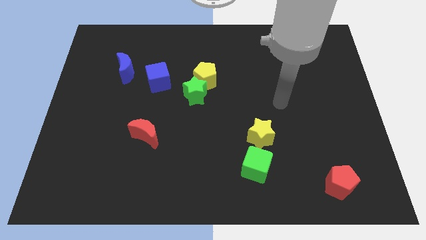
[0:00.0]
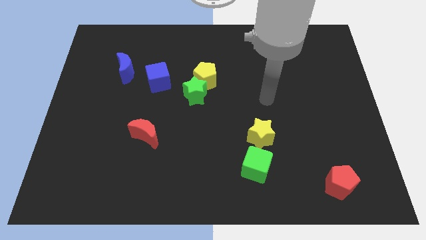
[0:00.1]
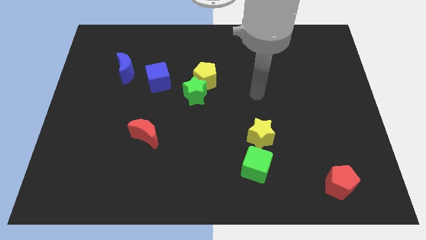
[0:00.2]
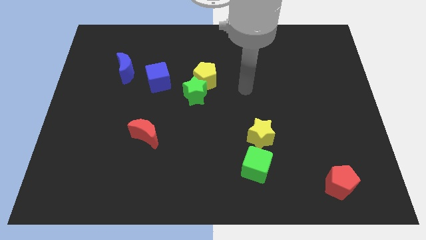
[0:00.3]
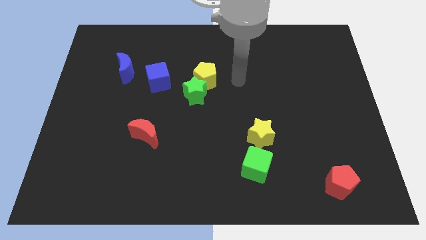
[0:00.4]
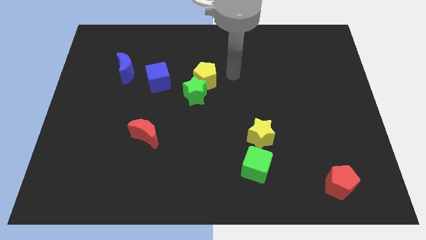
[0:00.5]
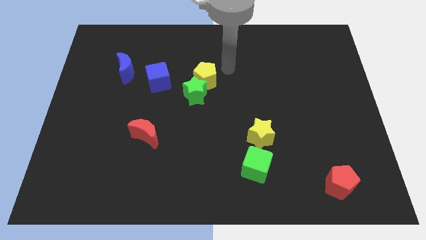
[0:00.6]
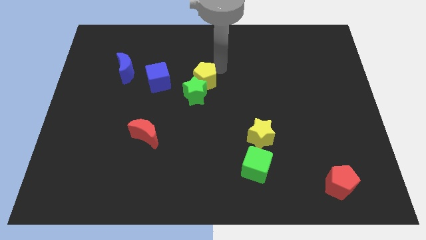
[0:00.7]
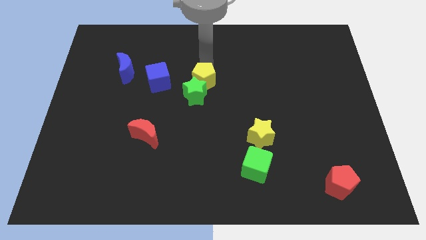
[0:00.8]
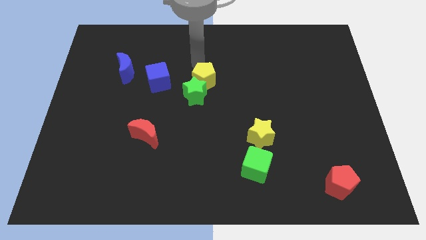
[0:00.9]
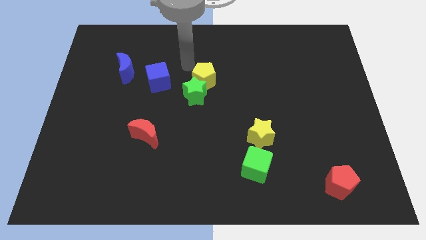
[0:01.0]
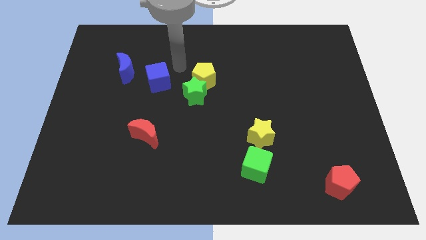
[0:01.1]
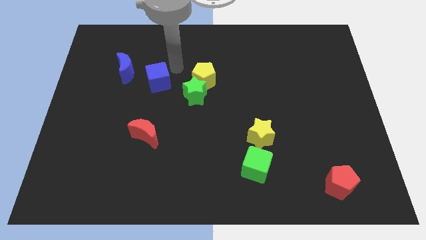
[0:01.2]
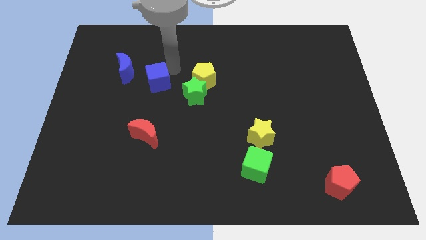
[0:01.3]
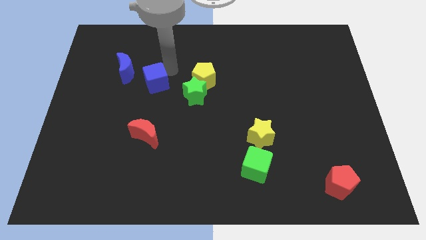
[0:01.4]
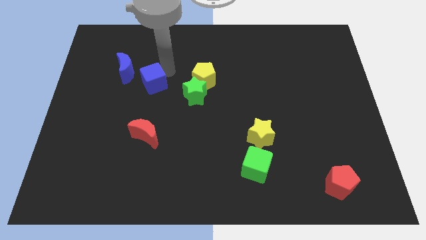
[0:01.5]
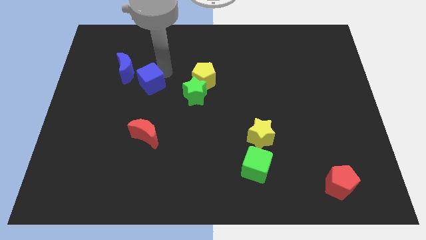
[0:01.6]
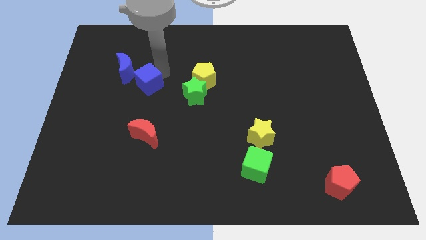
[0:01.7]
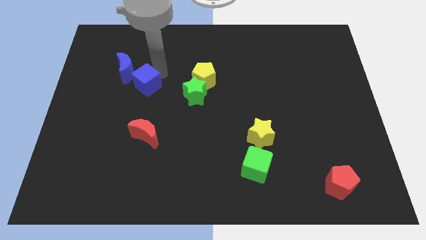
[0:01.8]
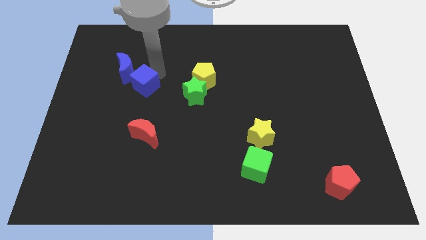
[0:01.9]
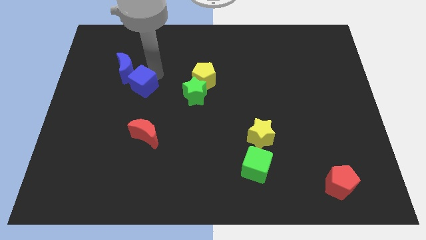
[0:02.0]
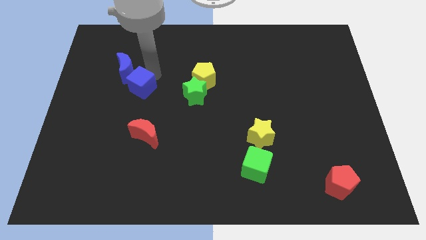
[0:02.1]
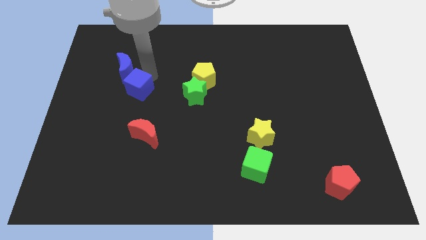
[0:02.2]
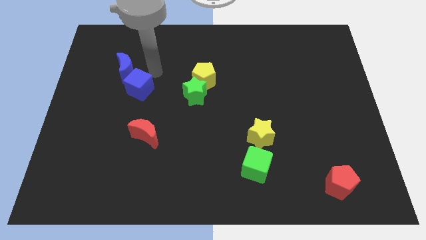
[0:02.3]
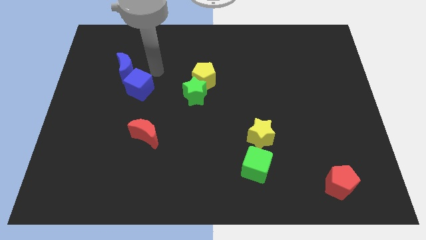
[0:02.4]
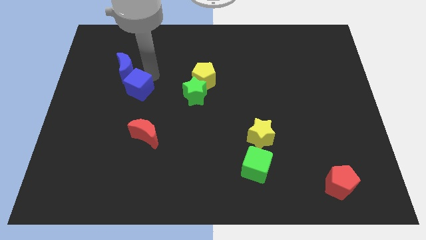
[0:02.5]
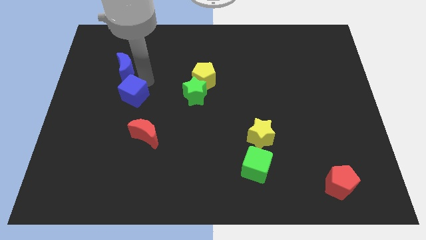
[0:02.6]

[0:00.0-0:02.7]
push the blue cube a bit downwards and then left

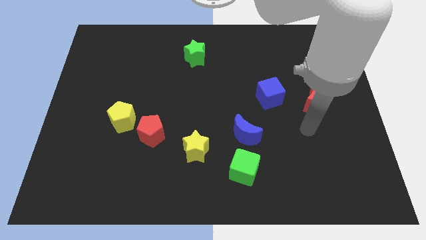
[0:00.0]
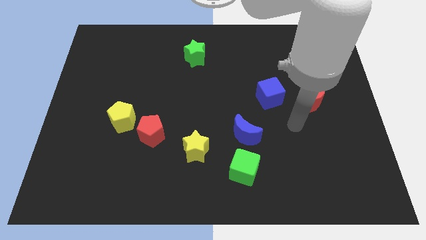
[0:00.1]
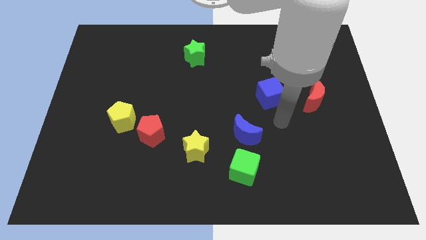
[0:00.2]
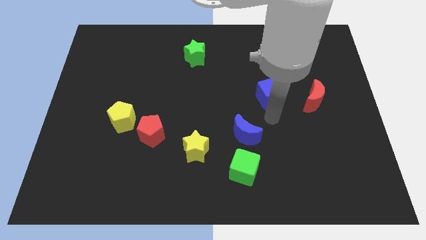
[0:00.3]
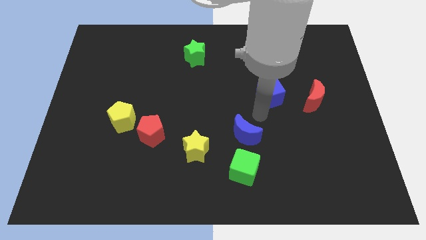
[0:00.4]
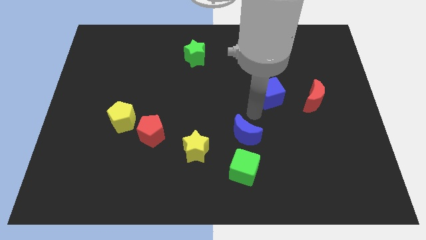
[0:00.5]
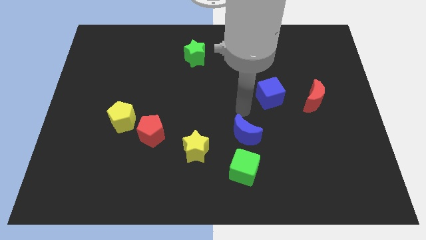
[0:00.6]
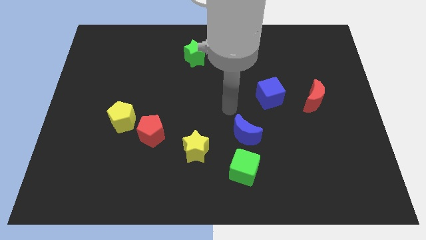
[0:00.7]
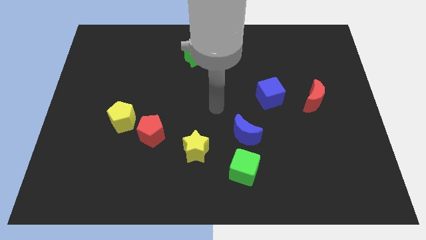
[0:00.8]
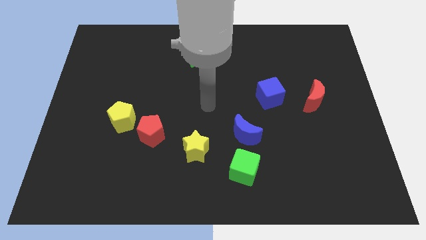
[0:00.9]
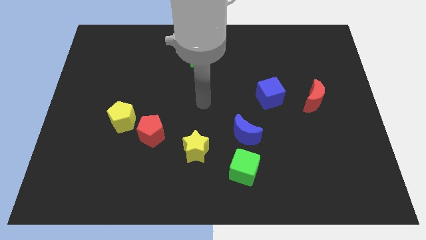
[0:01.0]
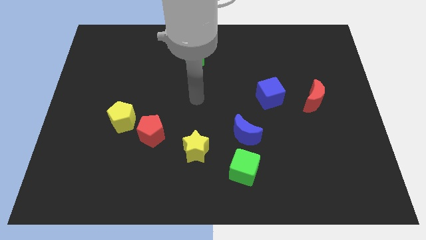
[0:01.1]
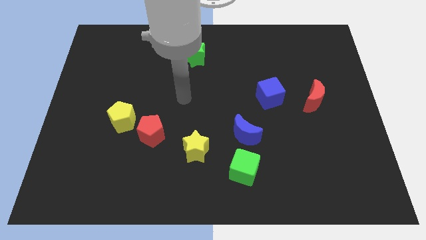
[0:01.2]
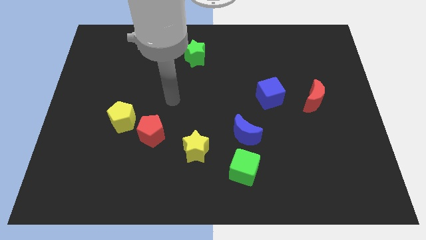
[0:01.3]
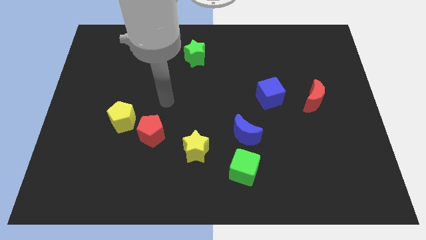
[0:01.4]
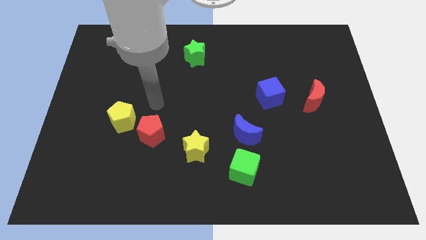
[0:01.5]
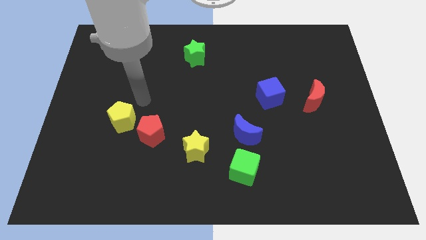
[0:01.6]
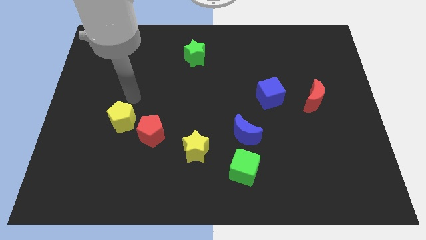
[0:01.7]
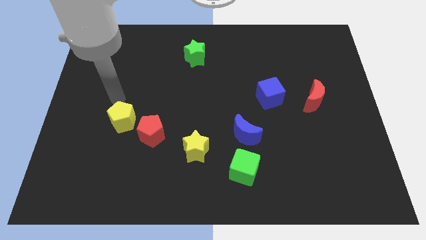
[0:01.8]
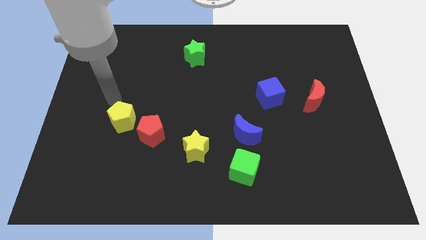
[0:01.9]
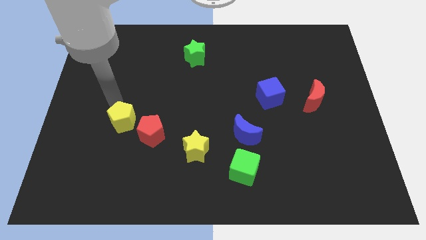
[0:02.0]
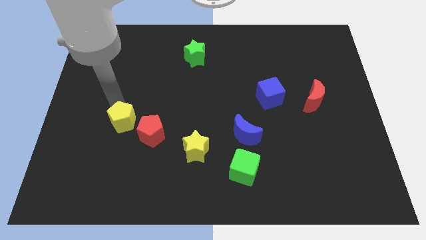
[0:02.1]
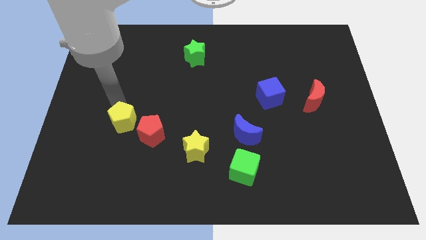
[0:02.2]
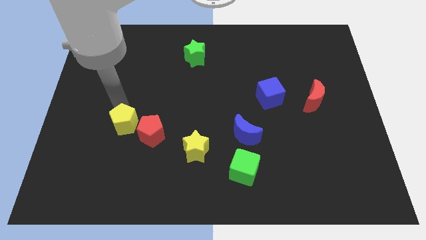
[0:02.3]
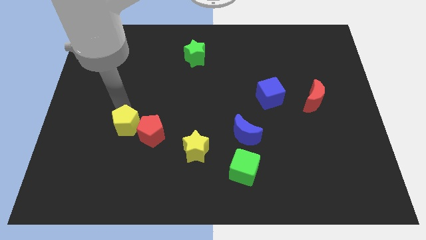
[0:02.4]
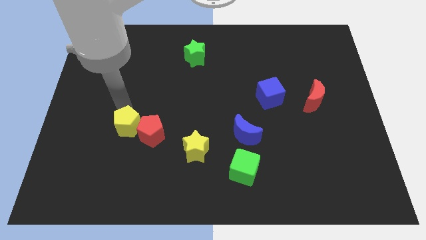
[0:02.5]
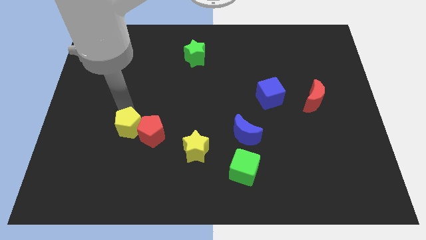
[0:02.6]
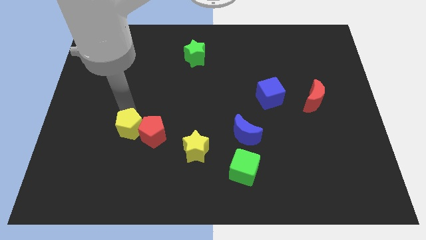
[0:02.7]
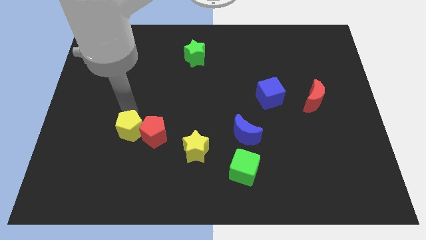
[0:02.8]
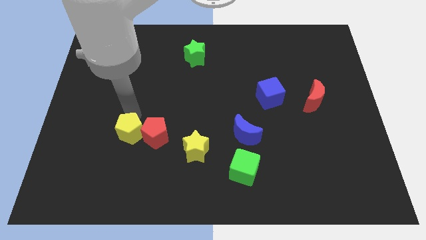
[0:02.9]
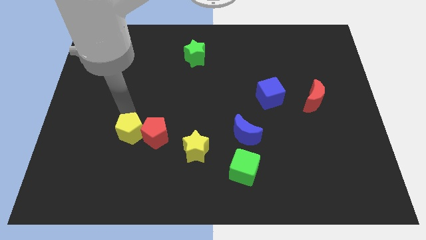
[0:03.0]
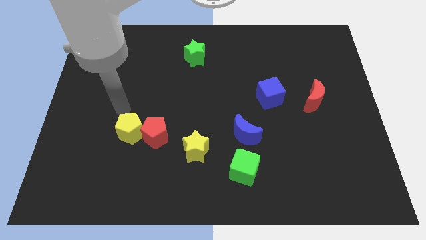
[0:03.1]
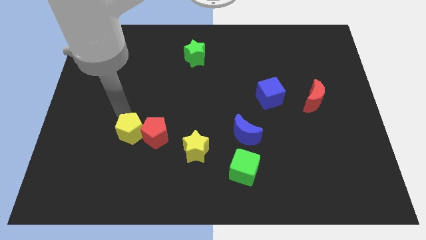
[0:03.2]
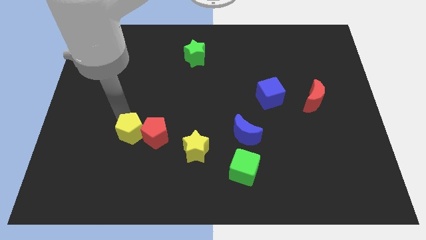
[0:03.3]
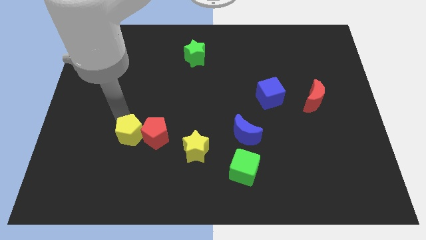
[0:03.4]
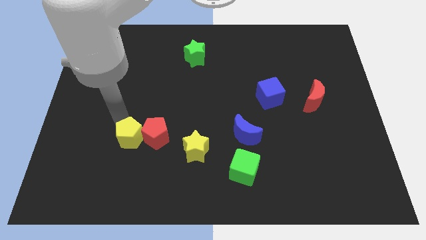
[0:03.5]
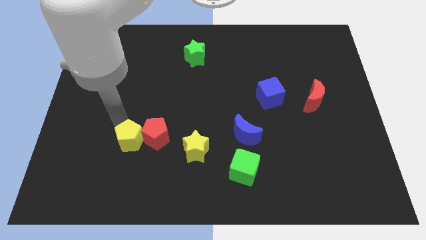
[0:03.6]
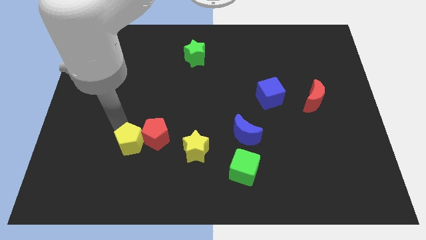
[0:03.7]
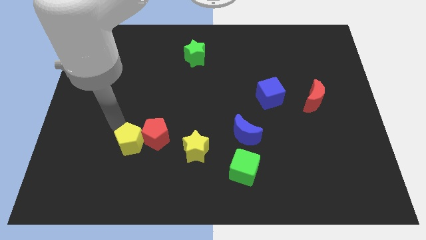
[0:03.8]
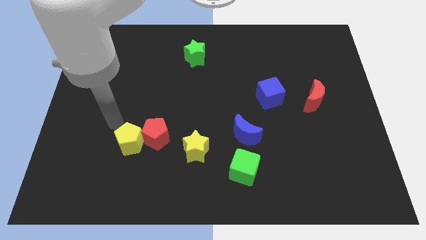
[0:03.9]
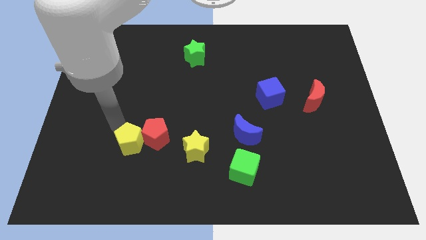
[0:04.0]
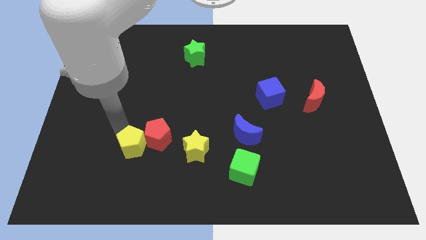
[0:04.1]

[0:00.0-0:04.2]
slide the yellow pentagon a little bit downwards and to the right diagonally

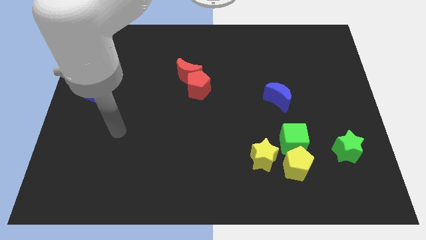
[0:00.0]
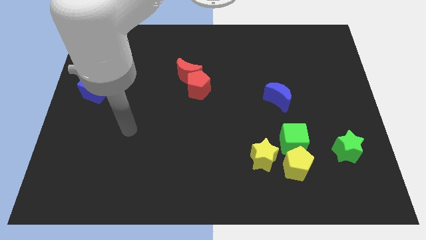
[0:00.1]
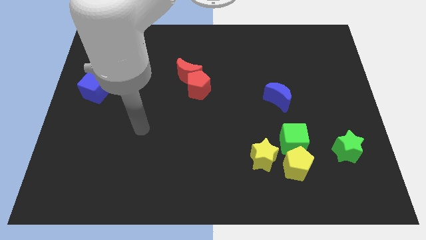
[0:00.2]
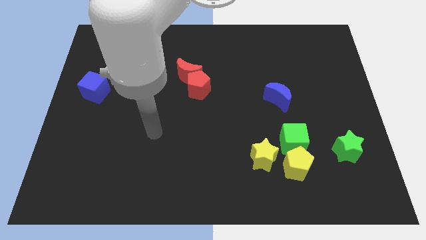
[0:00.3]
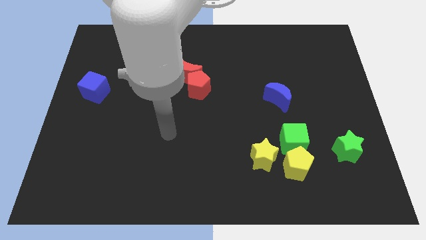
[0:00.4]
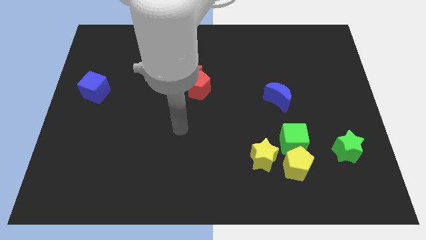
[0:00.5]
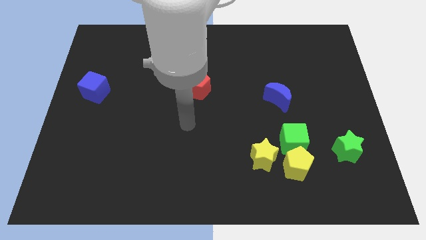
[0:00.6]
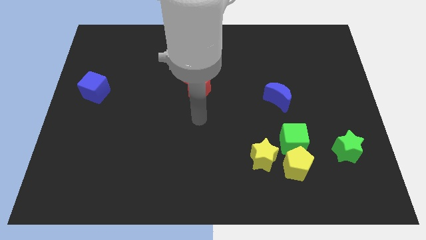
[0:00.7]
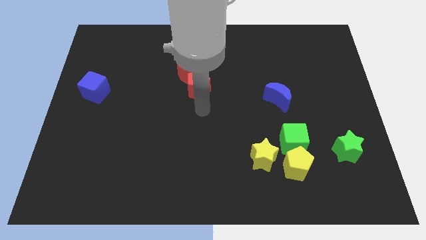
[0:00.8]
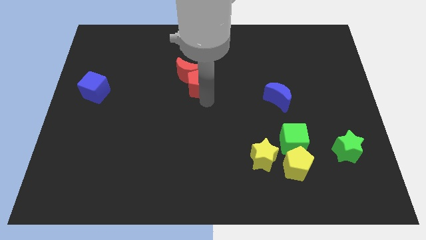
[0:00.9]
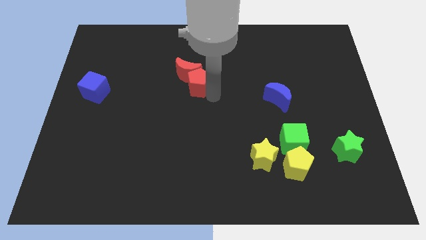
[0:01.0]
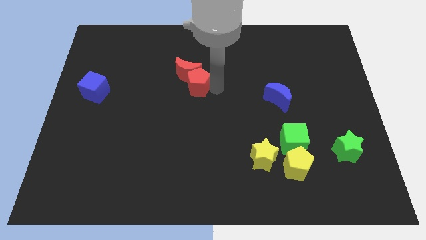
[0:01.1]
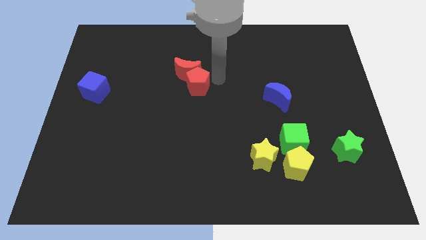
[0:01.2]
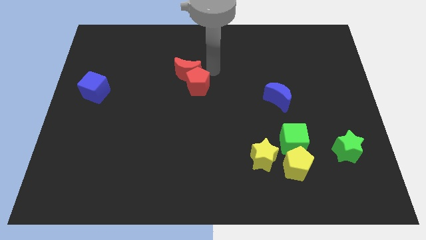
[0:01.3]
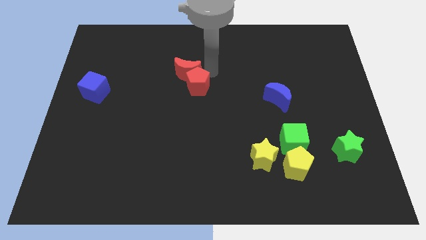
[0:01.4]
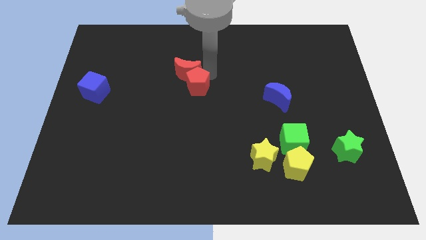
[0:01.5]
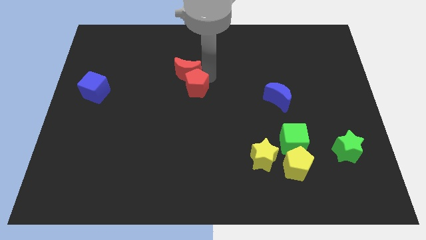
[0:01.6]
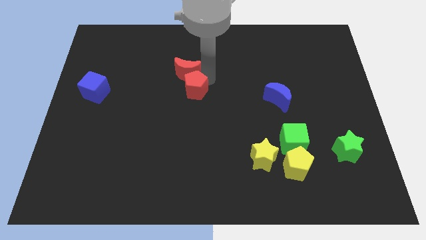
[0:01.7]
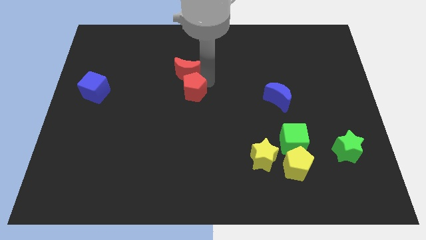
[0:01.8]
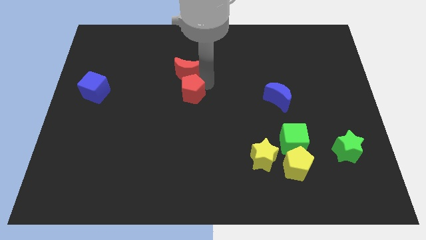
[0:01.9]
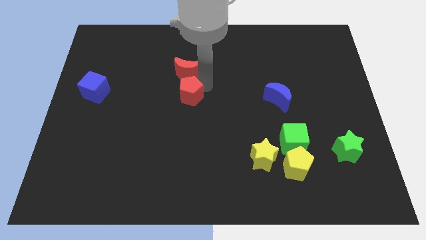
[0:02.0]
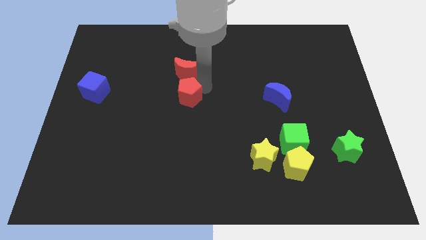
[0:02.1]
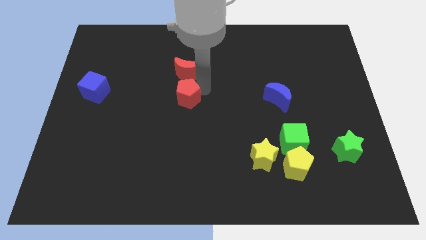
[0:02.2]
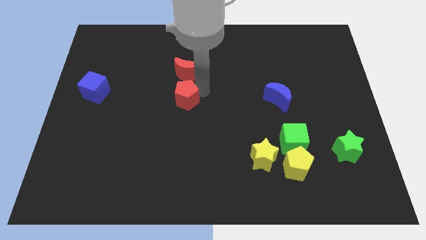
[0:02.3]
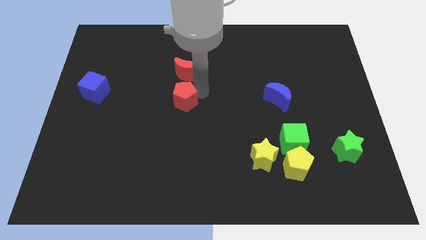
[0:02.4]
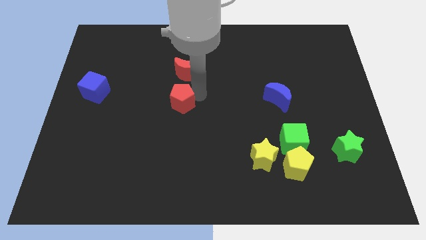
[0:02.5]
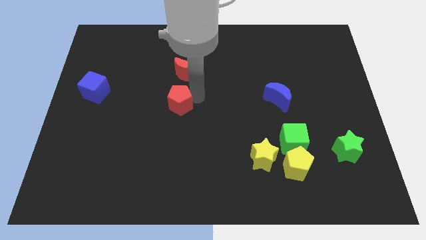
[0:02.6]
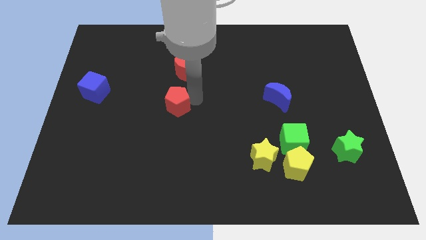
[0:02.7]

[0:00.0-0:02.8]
push the red pentagon a little bit downwards and left
